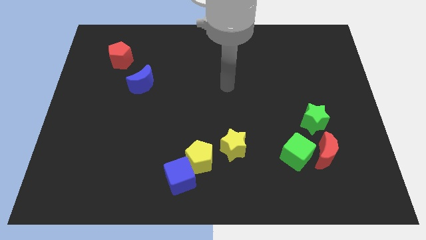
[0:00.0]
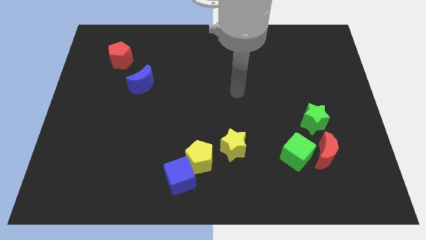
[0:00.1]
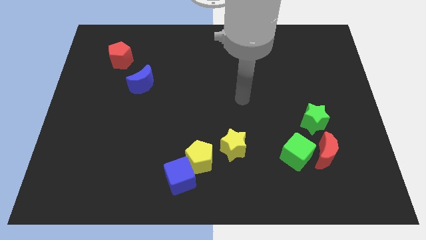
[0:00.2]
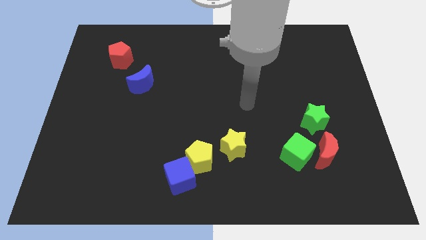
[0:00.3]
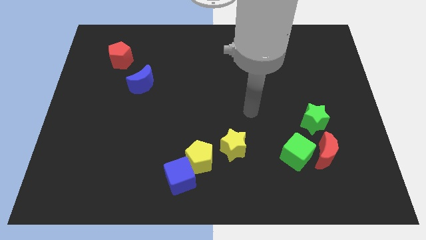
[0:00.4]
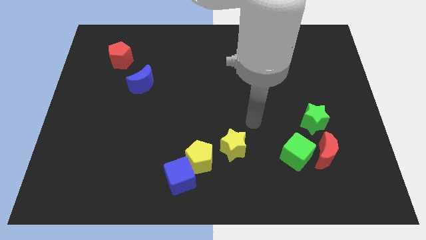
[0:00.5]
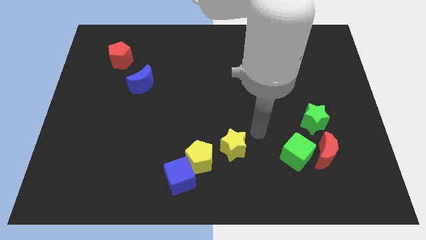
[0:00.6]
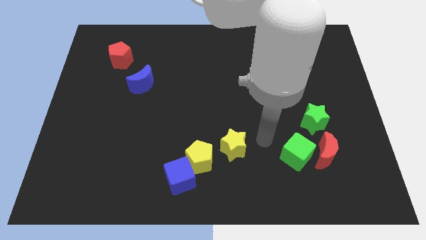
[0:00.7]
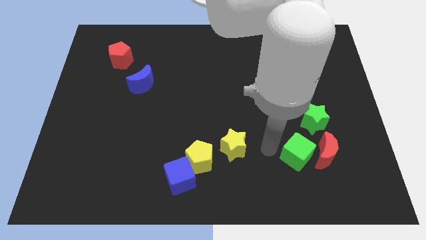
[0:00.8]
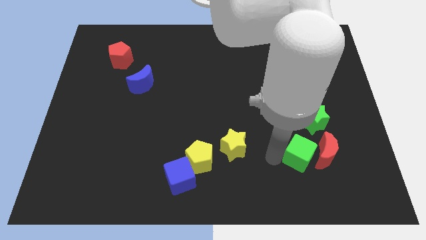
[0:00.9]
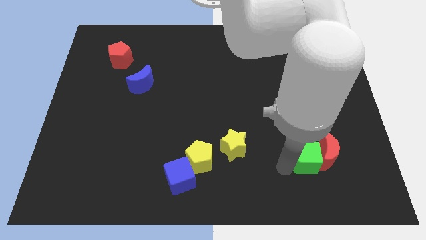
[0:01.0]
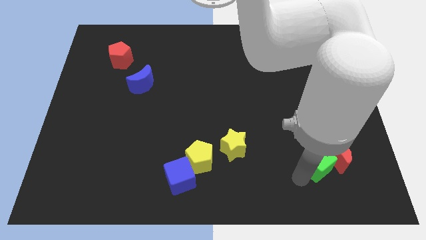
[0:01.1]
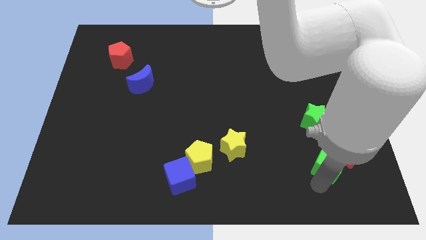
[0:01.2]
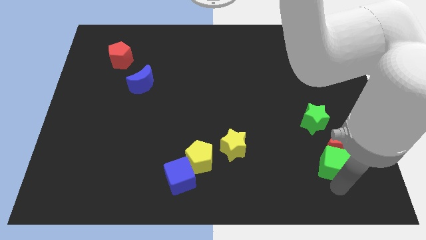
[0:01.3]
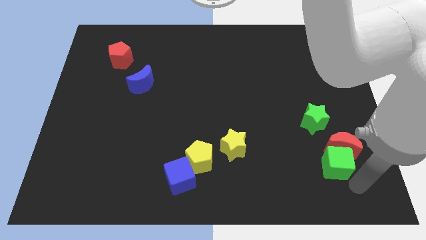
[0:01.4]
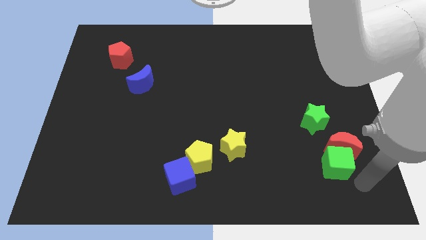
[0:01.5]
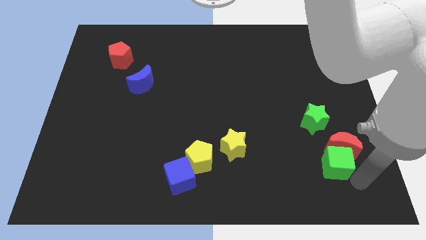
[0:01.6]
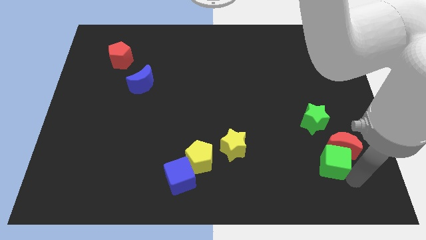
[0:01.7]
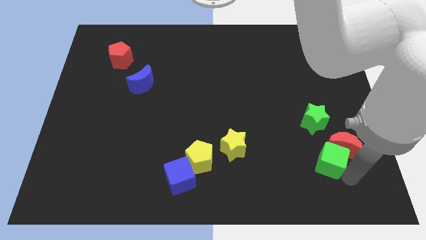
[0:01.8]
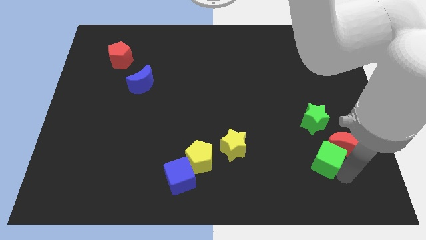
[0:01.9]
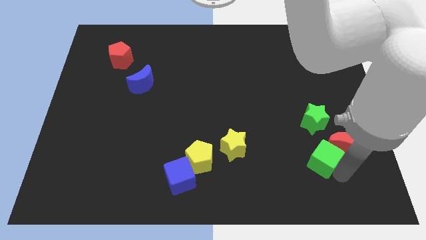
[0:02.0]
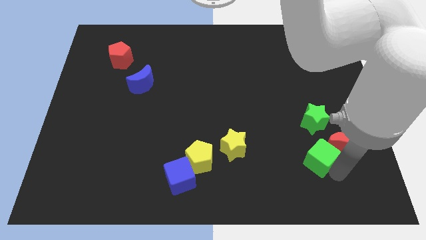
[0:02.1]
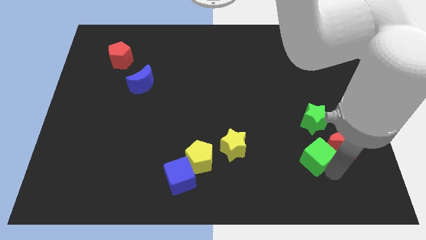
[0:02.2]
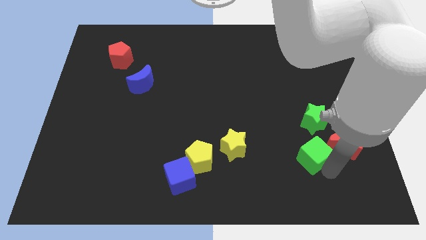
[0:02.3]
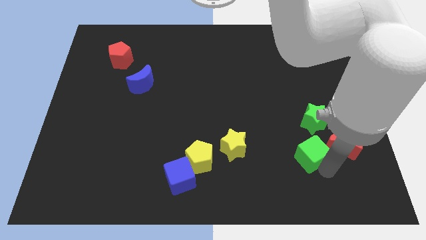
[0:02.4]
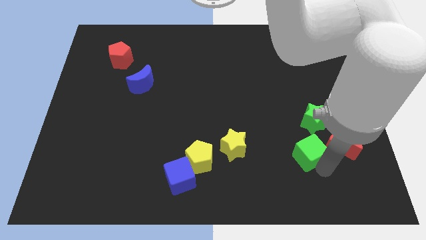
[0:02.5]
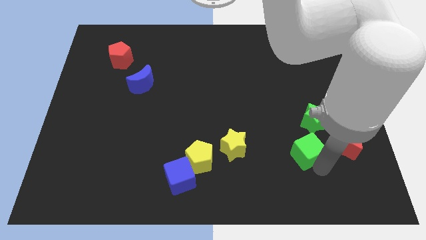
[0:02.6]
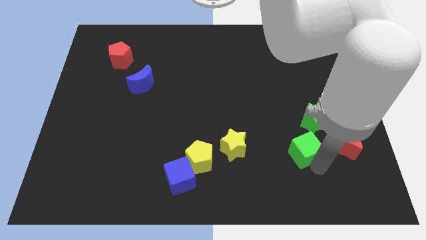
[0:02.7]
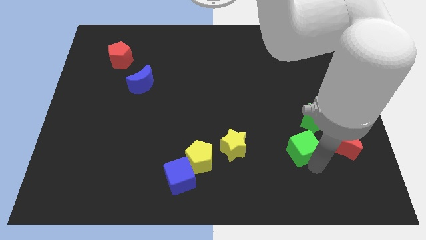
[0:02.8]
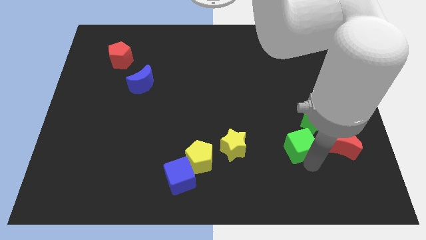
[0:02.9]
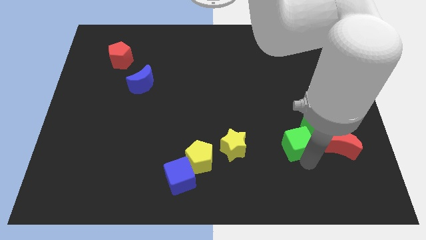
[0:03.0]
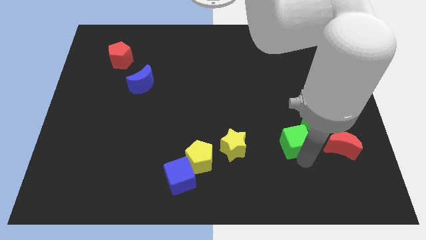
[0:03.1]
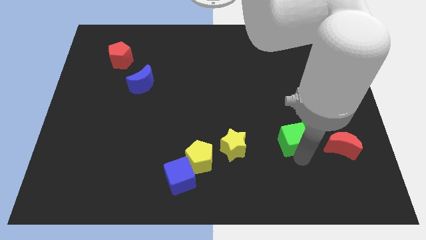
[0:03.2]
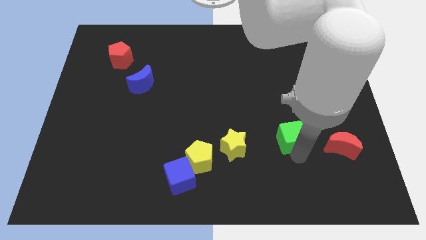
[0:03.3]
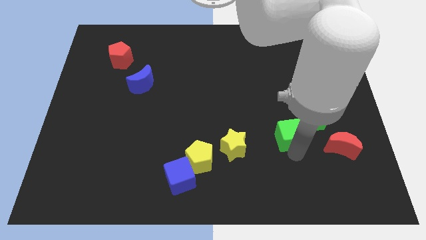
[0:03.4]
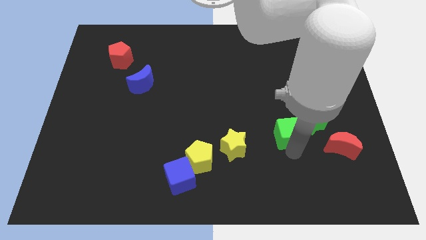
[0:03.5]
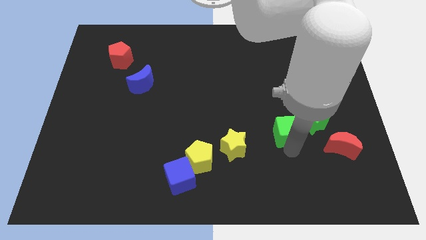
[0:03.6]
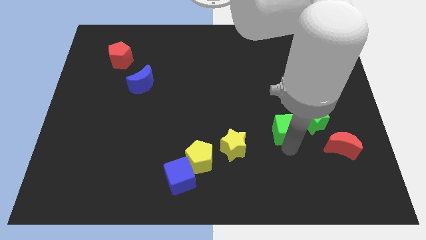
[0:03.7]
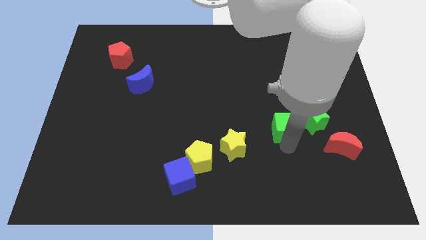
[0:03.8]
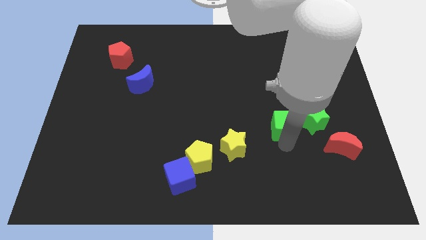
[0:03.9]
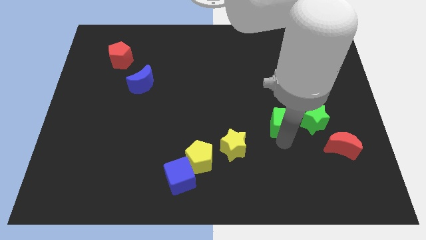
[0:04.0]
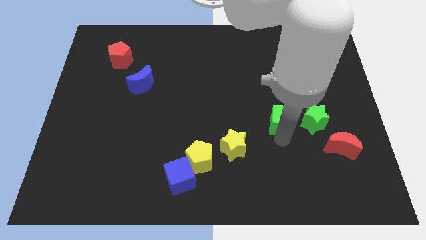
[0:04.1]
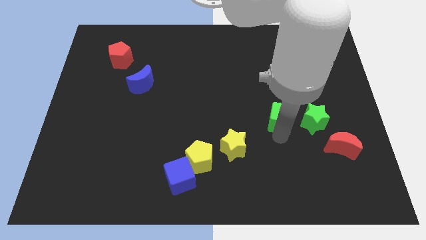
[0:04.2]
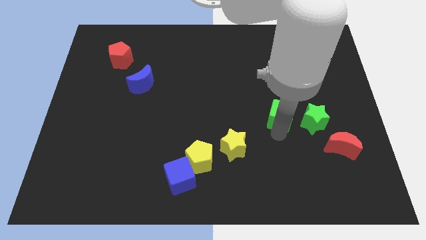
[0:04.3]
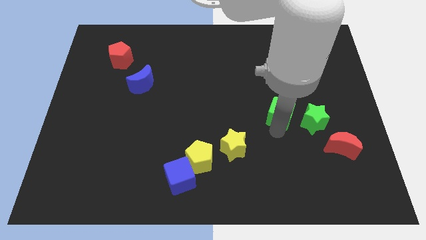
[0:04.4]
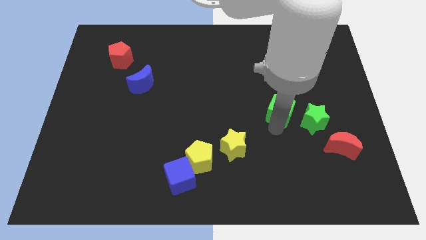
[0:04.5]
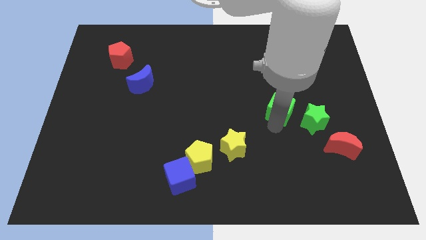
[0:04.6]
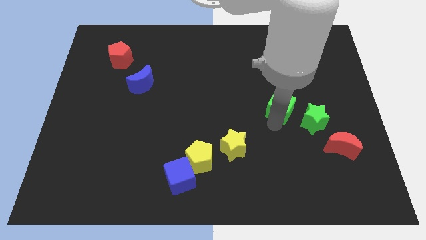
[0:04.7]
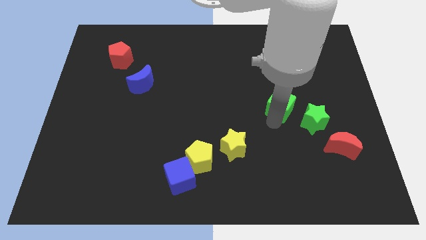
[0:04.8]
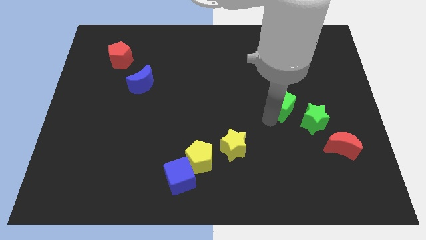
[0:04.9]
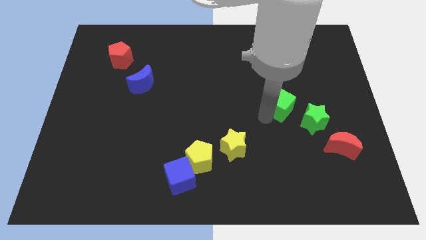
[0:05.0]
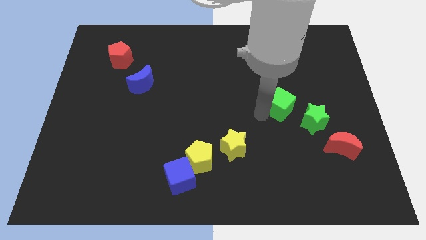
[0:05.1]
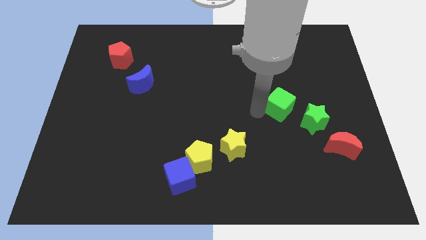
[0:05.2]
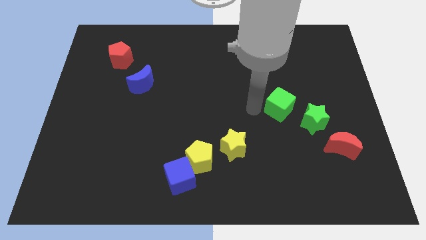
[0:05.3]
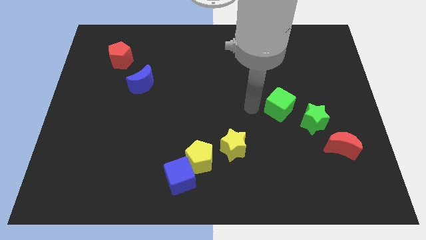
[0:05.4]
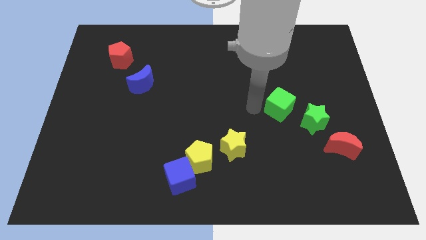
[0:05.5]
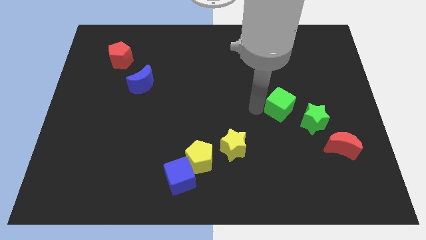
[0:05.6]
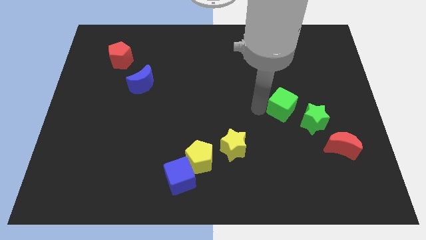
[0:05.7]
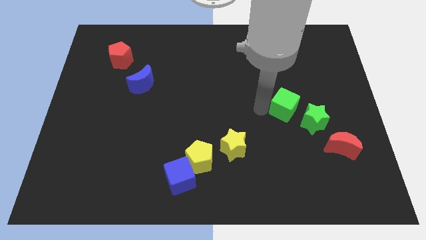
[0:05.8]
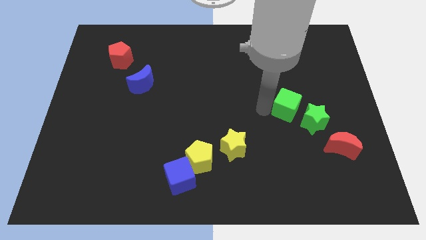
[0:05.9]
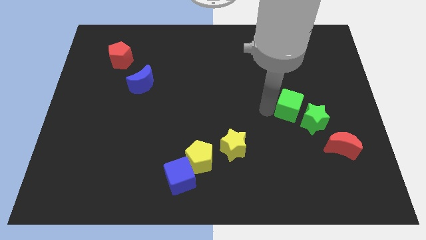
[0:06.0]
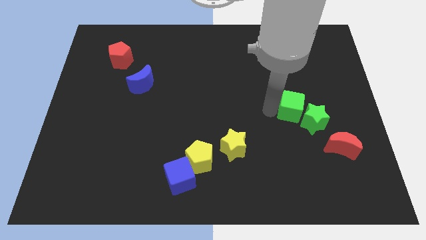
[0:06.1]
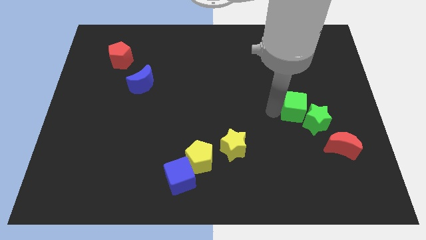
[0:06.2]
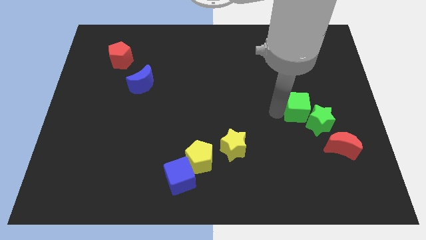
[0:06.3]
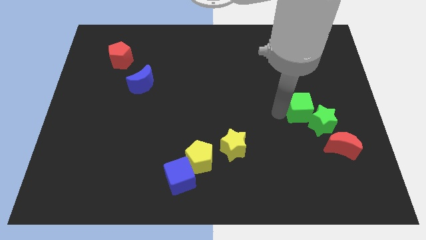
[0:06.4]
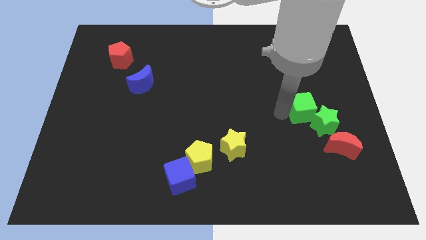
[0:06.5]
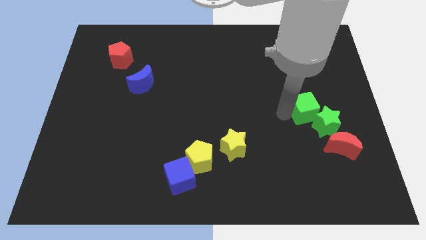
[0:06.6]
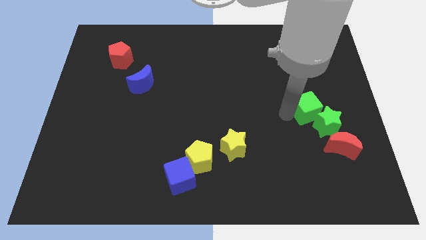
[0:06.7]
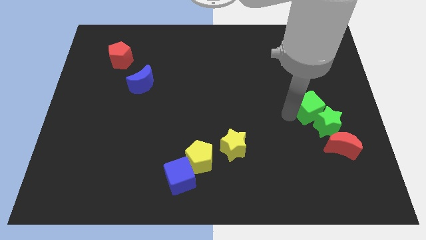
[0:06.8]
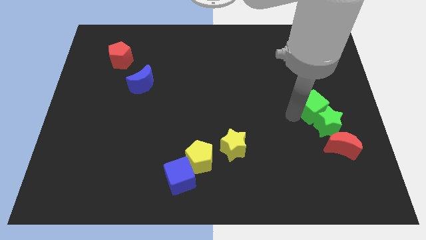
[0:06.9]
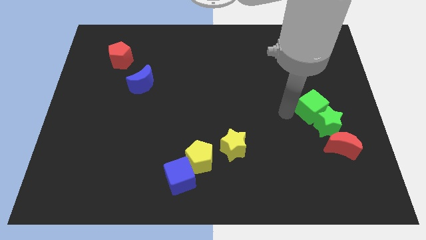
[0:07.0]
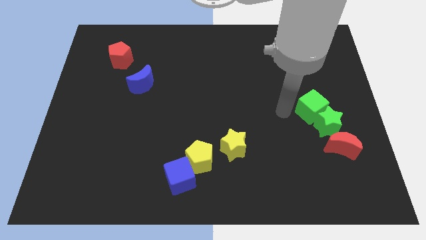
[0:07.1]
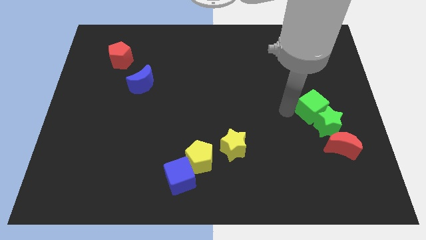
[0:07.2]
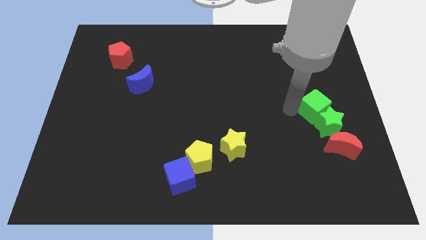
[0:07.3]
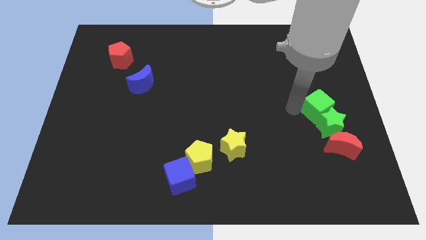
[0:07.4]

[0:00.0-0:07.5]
put the green cube to the top right of the green star
